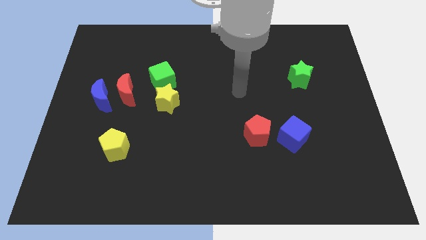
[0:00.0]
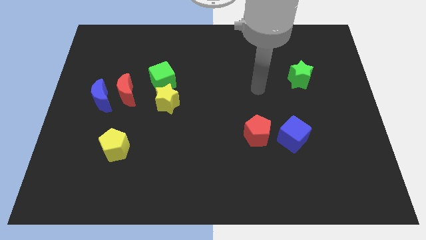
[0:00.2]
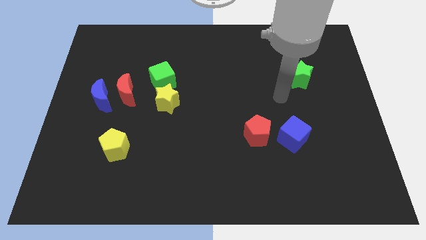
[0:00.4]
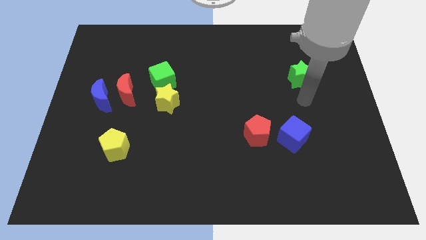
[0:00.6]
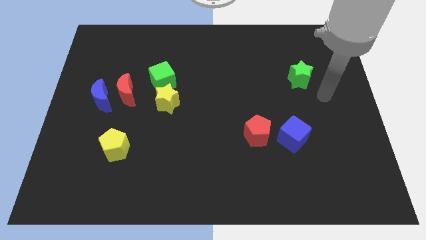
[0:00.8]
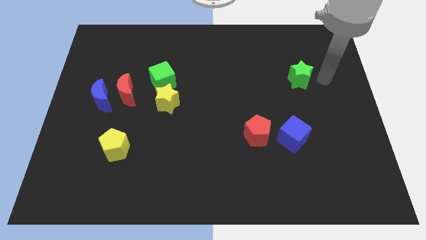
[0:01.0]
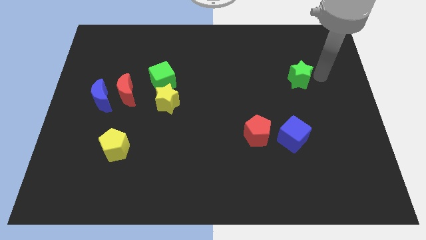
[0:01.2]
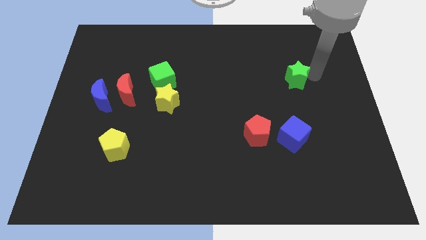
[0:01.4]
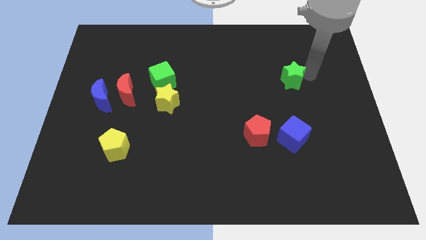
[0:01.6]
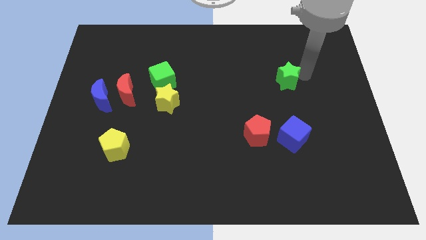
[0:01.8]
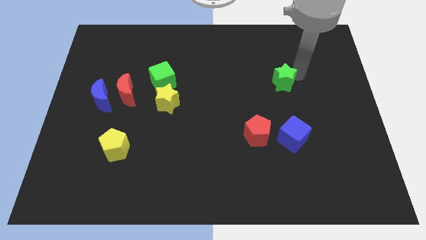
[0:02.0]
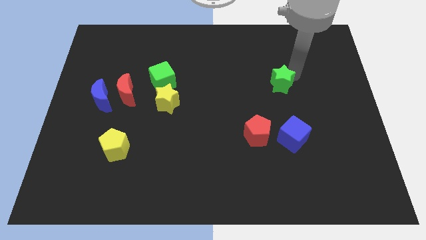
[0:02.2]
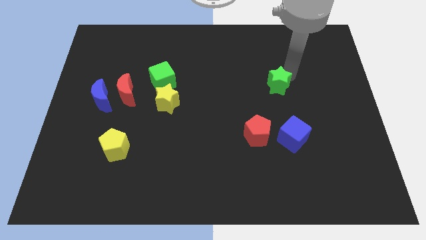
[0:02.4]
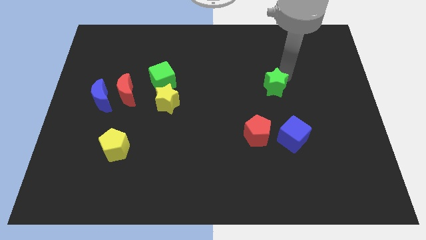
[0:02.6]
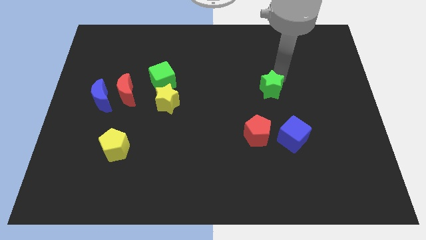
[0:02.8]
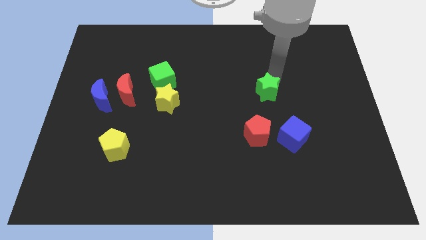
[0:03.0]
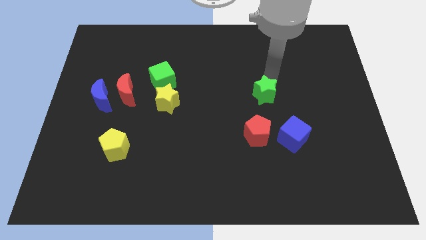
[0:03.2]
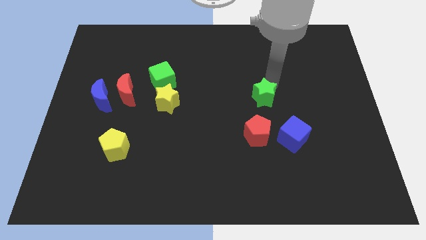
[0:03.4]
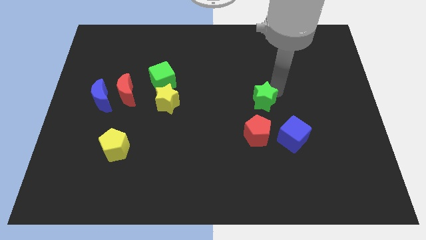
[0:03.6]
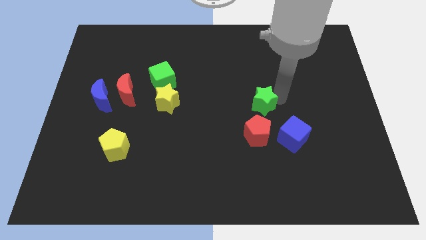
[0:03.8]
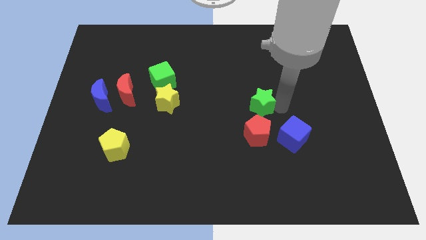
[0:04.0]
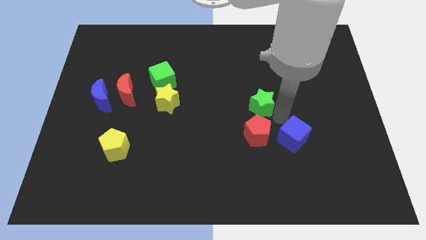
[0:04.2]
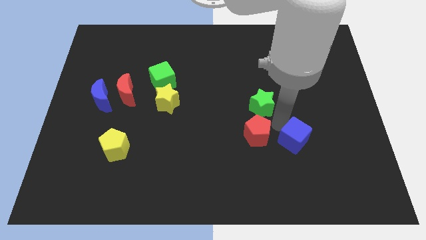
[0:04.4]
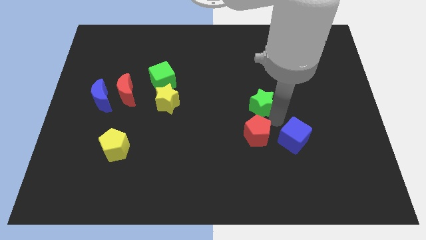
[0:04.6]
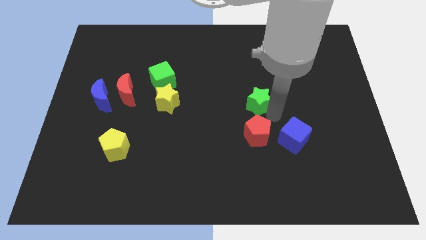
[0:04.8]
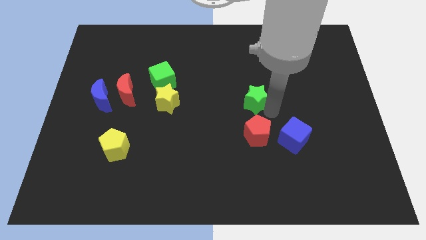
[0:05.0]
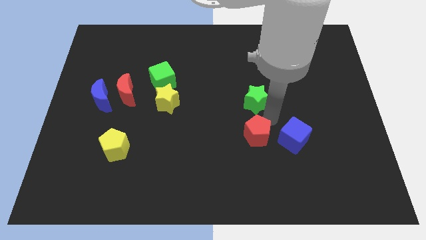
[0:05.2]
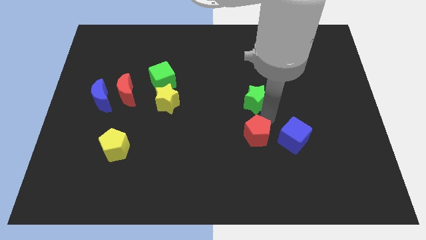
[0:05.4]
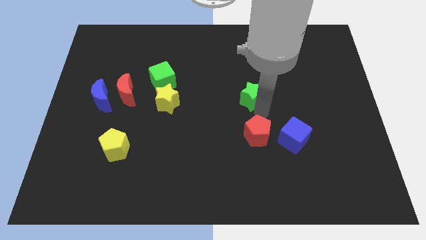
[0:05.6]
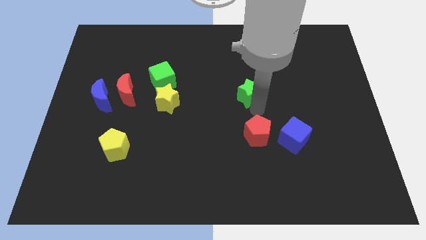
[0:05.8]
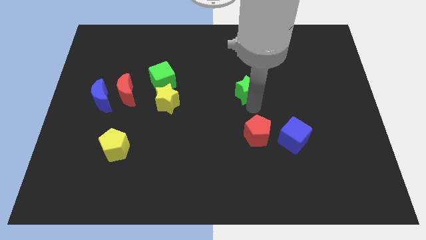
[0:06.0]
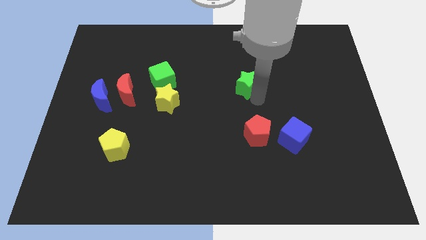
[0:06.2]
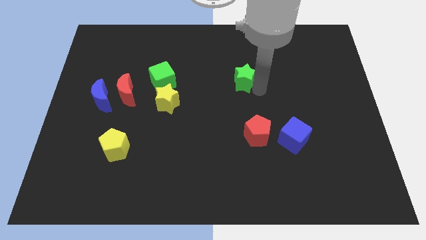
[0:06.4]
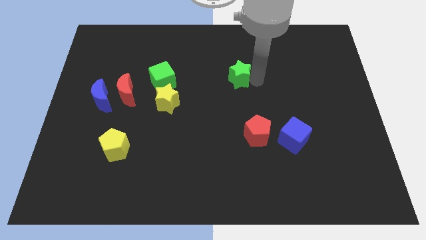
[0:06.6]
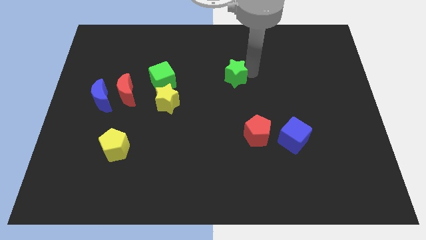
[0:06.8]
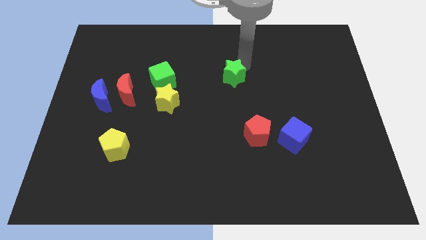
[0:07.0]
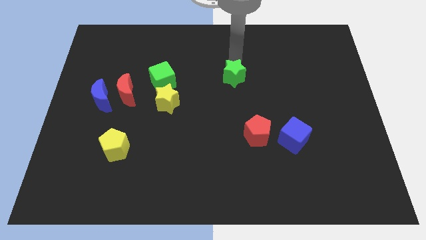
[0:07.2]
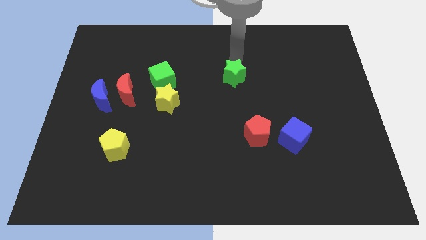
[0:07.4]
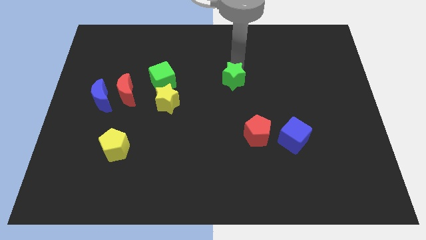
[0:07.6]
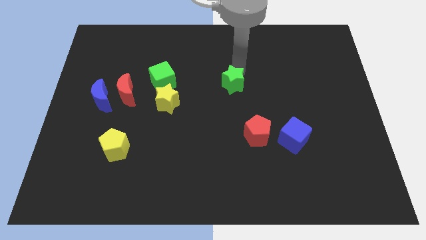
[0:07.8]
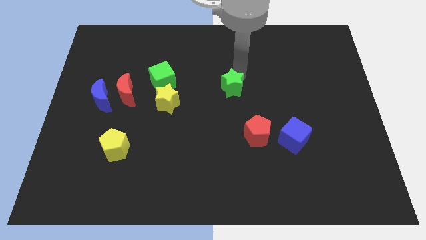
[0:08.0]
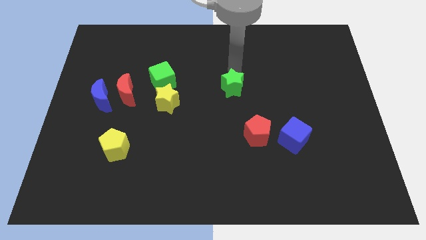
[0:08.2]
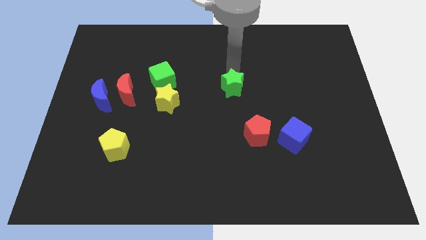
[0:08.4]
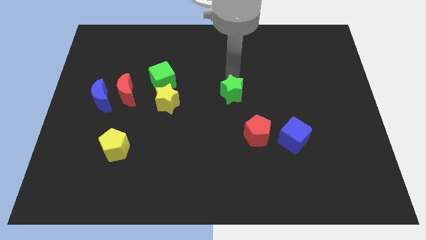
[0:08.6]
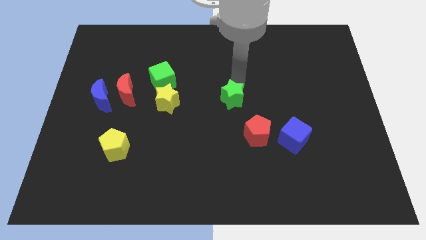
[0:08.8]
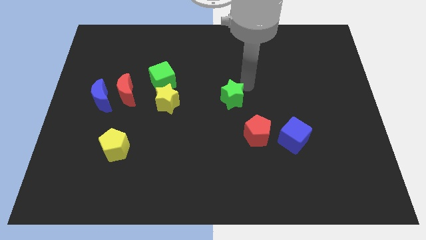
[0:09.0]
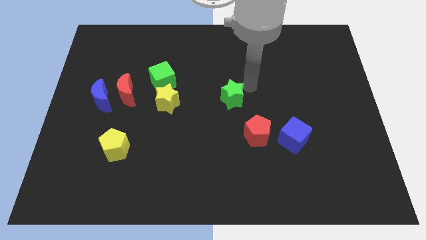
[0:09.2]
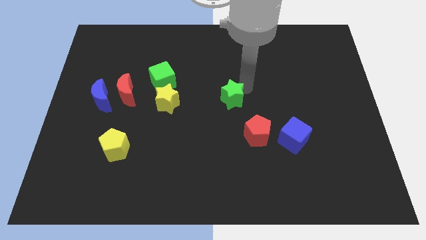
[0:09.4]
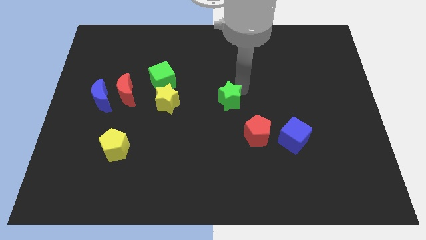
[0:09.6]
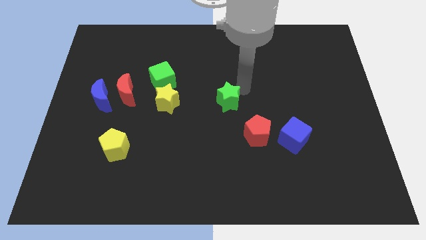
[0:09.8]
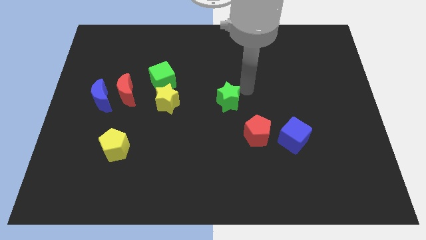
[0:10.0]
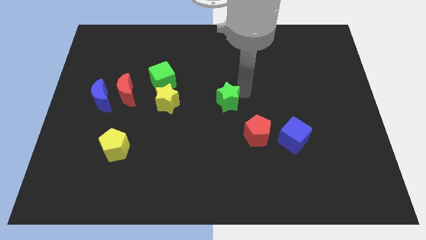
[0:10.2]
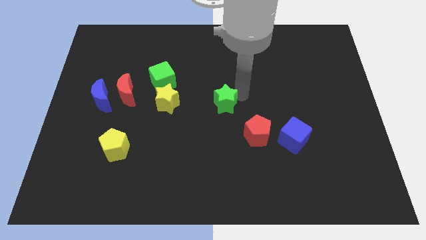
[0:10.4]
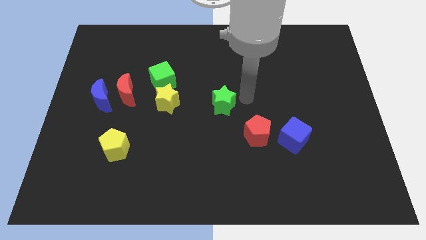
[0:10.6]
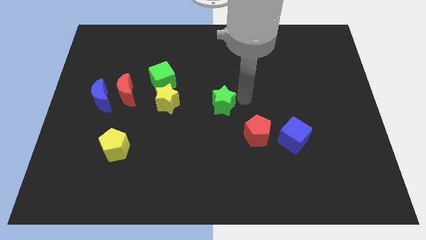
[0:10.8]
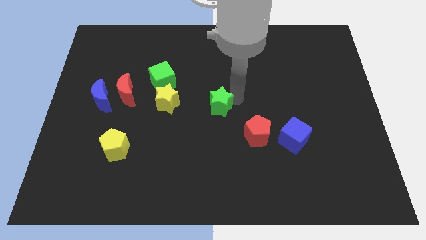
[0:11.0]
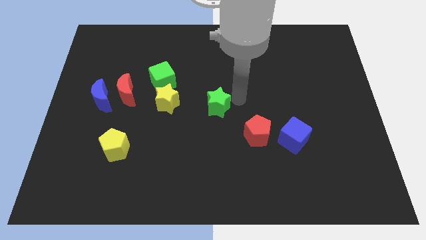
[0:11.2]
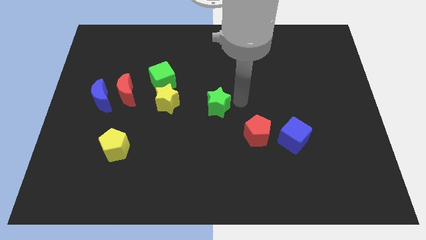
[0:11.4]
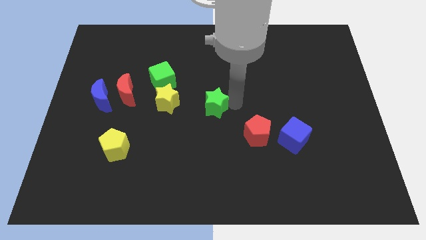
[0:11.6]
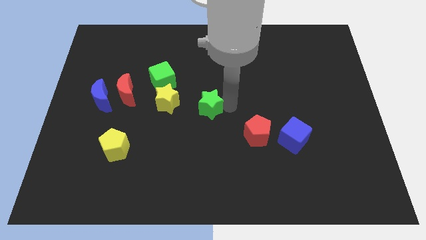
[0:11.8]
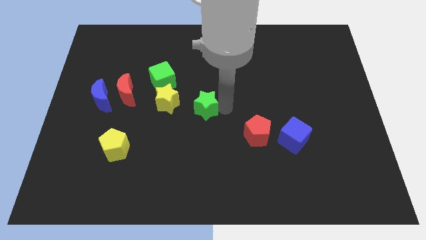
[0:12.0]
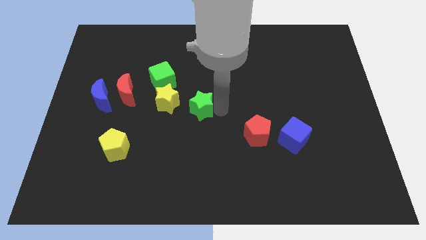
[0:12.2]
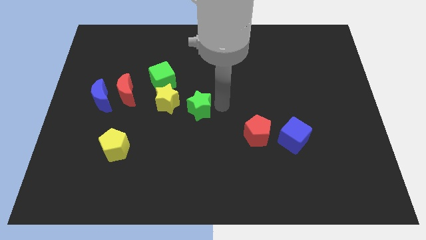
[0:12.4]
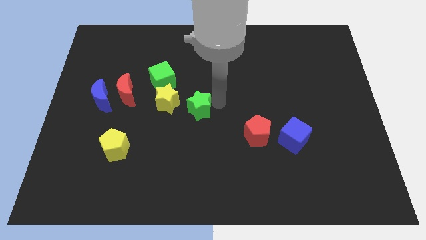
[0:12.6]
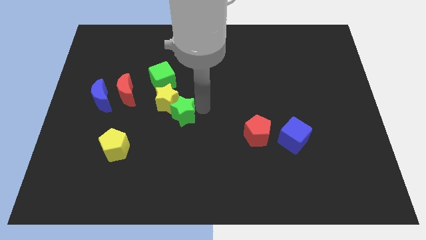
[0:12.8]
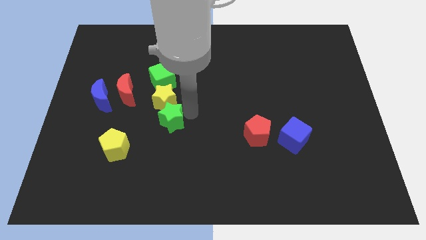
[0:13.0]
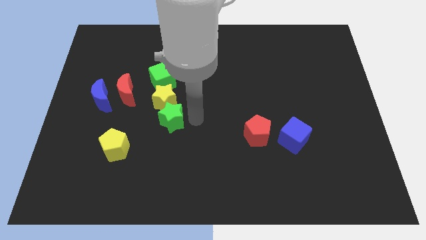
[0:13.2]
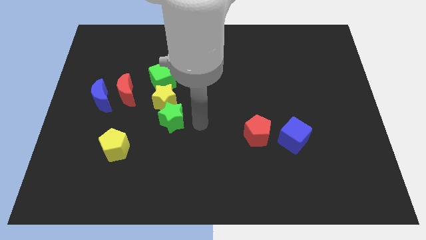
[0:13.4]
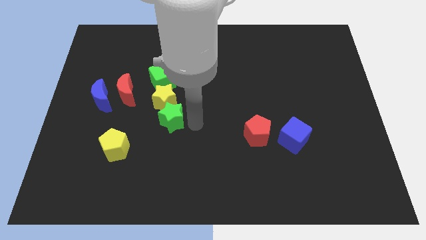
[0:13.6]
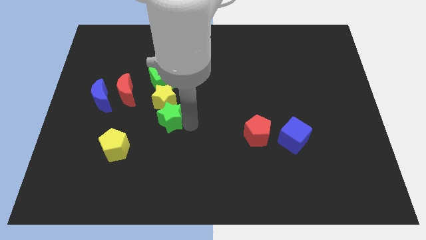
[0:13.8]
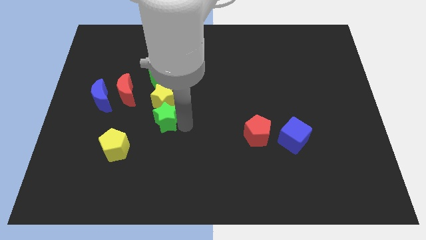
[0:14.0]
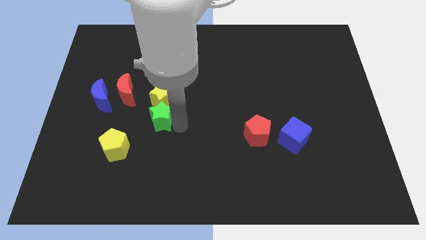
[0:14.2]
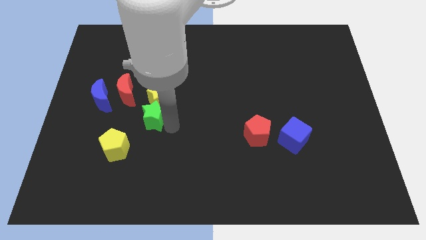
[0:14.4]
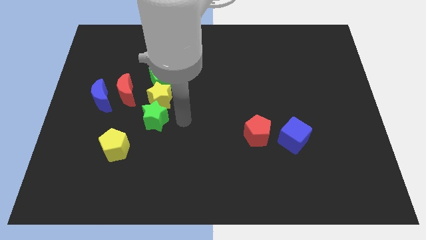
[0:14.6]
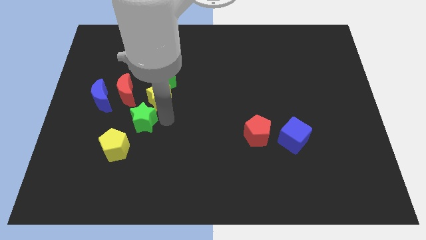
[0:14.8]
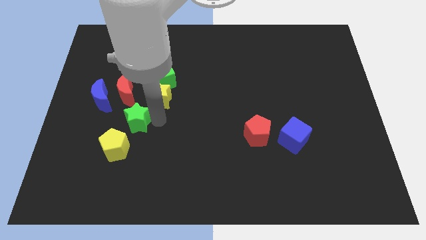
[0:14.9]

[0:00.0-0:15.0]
move the green star diagonally down and to the right of the blue moon

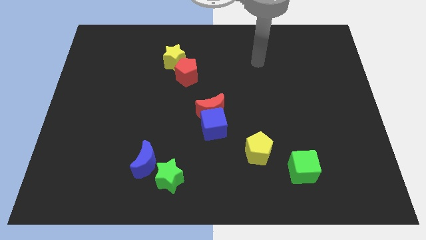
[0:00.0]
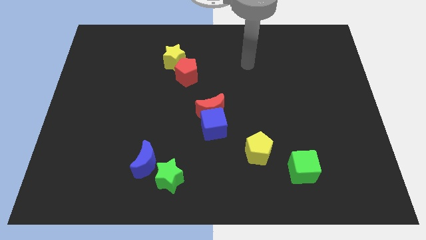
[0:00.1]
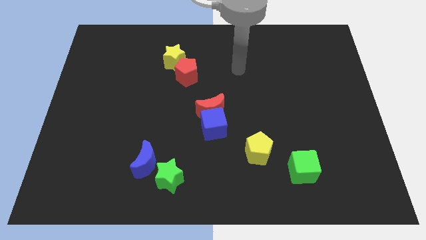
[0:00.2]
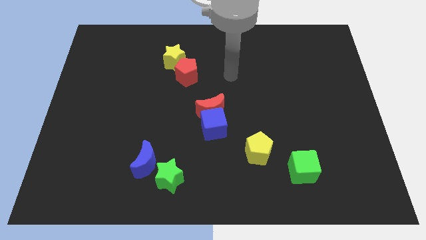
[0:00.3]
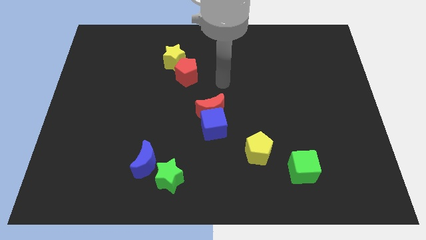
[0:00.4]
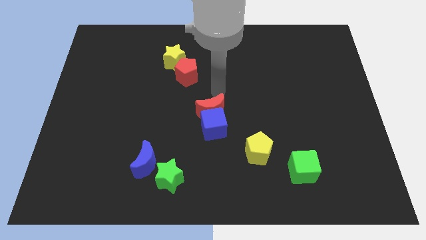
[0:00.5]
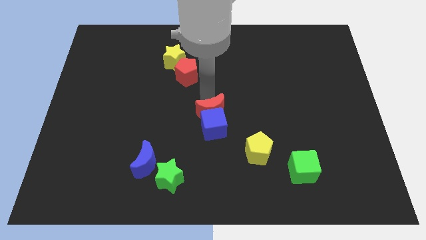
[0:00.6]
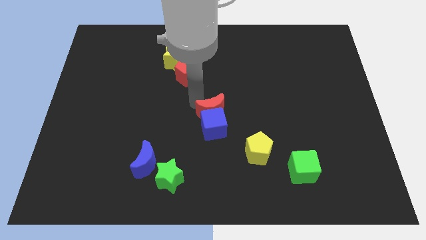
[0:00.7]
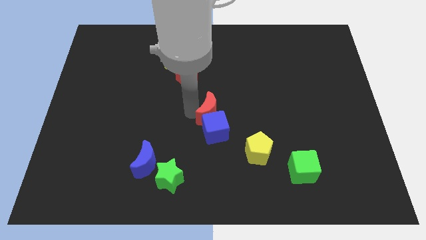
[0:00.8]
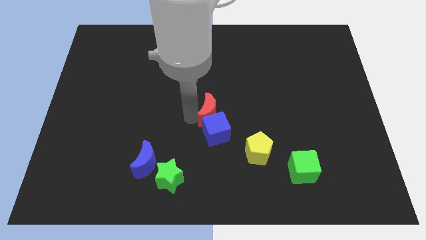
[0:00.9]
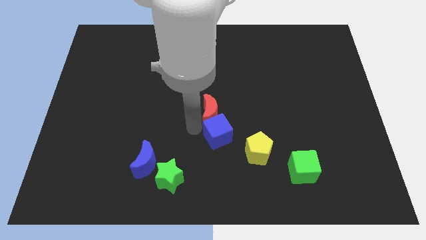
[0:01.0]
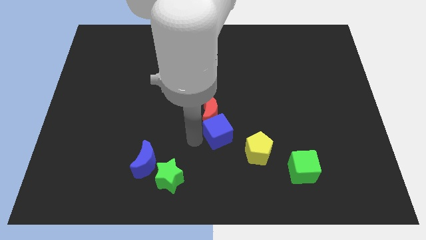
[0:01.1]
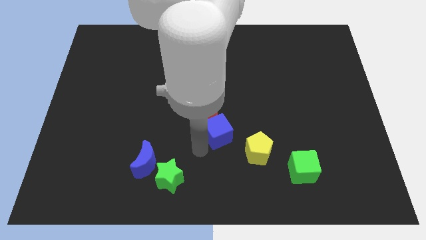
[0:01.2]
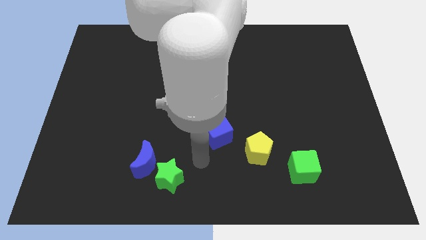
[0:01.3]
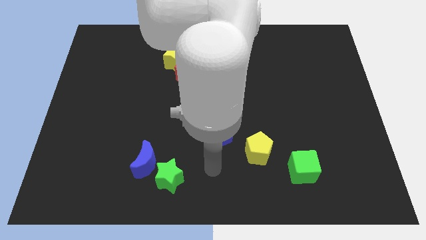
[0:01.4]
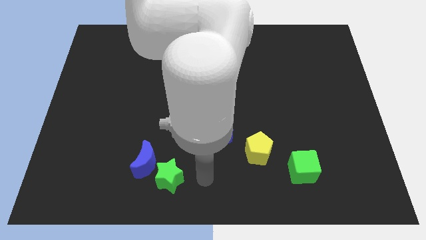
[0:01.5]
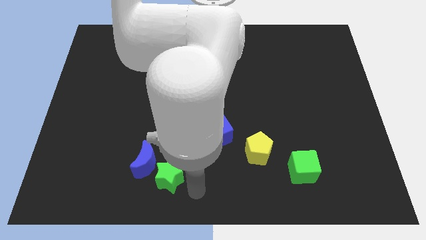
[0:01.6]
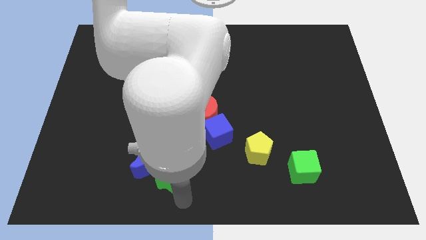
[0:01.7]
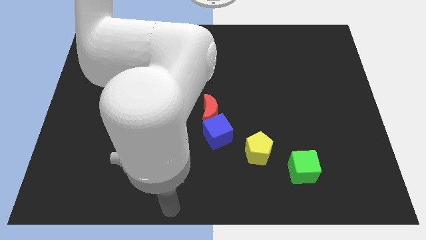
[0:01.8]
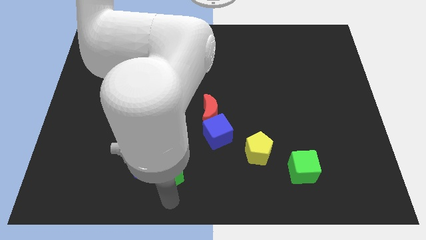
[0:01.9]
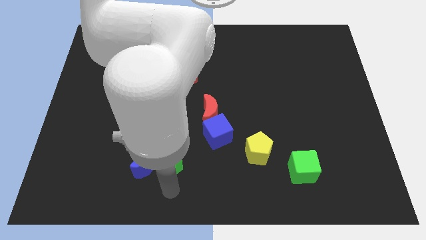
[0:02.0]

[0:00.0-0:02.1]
push the green star diagonally up and to the right of the blue moon
